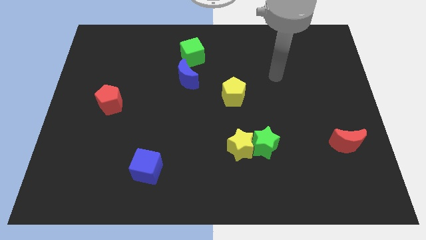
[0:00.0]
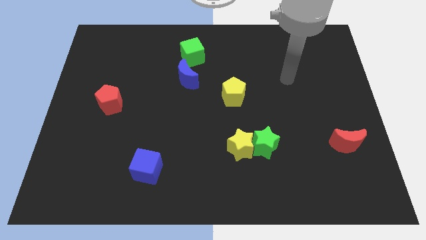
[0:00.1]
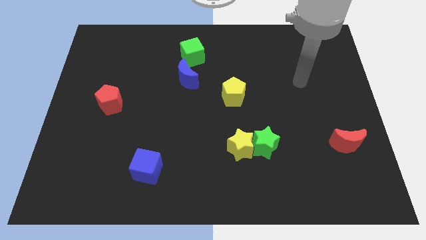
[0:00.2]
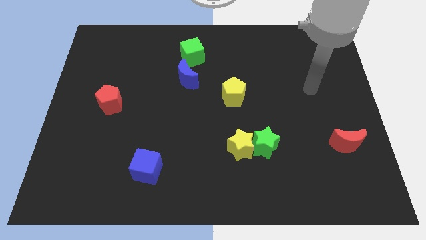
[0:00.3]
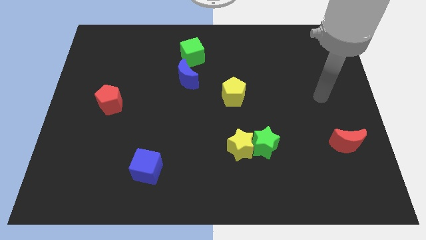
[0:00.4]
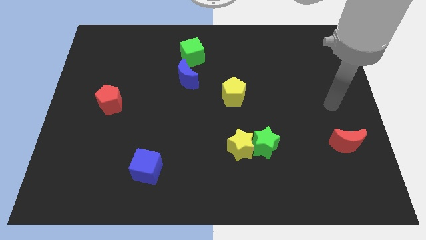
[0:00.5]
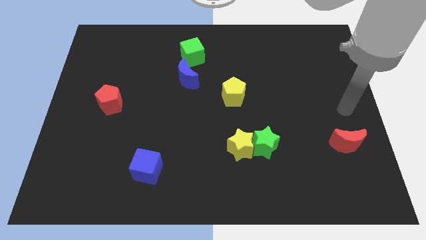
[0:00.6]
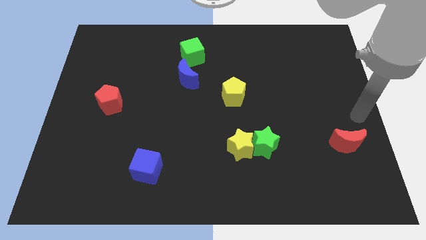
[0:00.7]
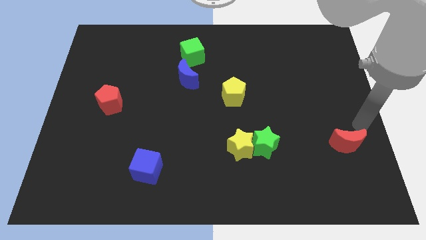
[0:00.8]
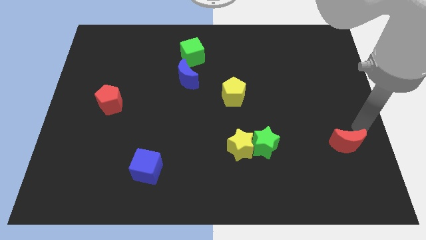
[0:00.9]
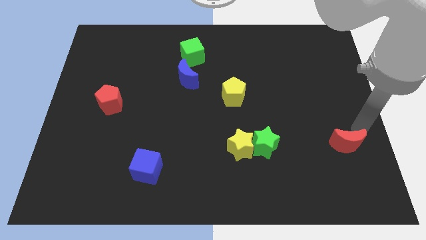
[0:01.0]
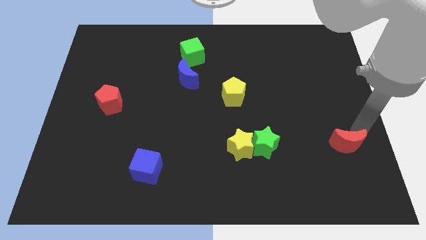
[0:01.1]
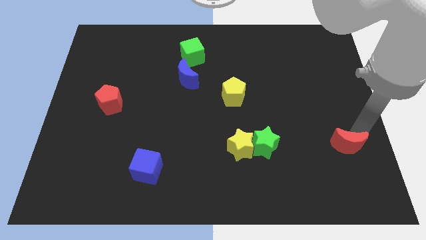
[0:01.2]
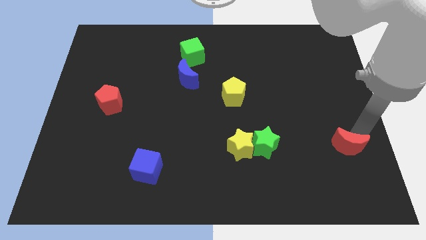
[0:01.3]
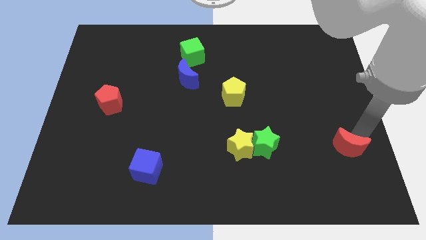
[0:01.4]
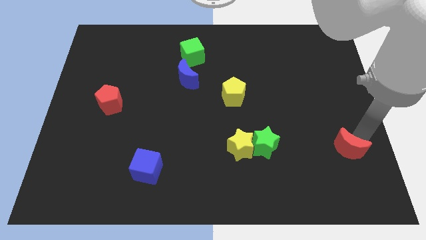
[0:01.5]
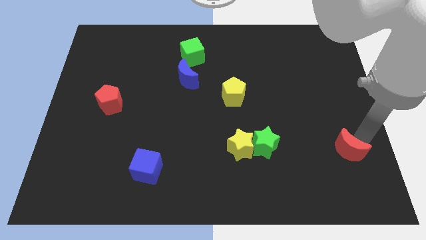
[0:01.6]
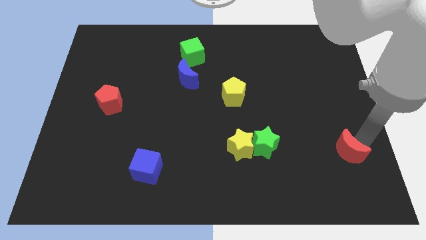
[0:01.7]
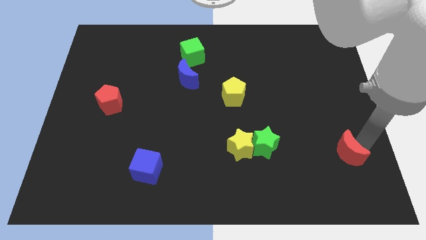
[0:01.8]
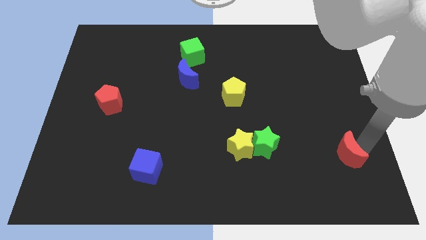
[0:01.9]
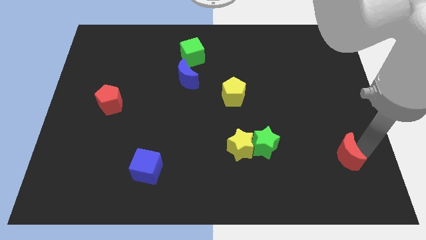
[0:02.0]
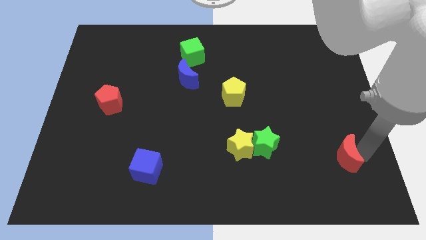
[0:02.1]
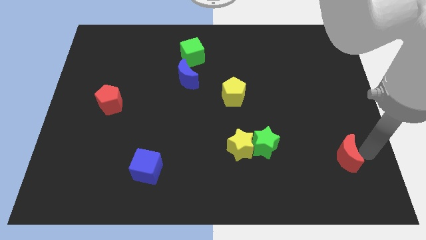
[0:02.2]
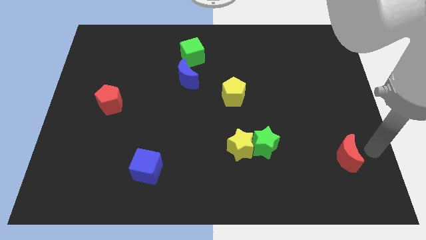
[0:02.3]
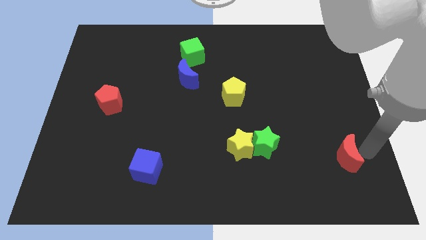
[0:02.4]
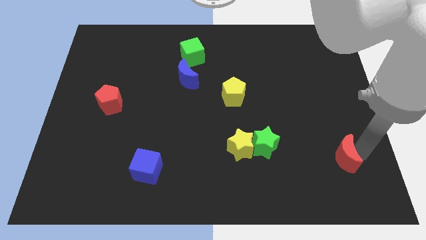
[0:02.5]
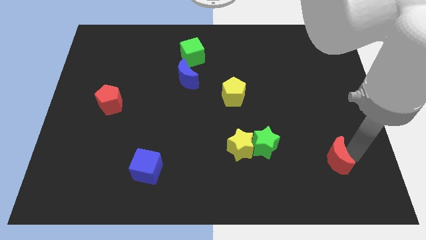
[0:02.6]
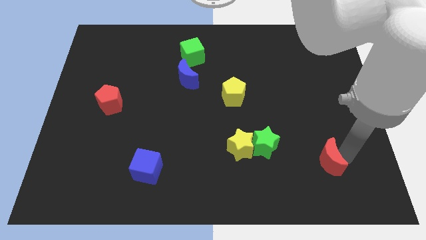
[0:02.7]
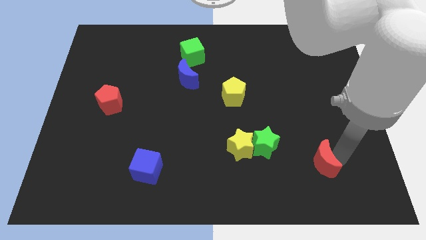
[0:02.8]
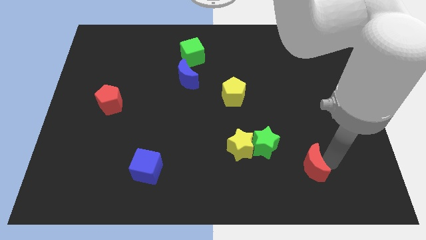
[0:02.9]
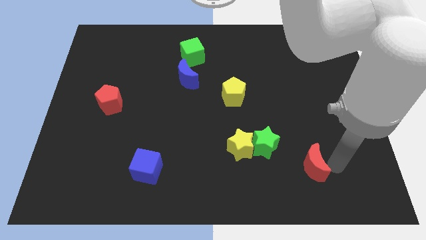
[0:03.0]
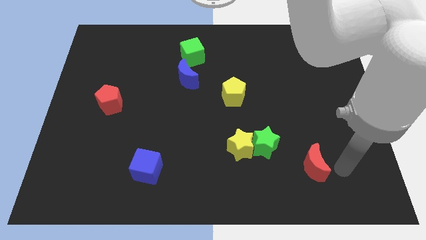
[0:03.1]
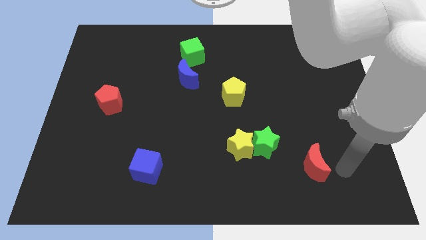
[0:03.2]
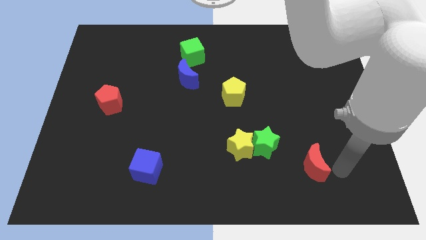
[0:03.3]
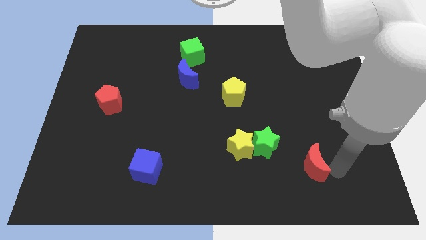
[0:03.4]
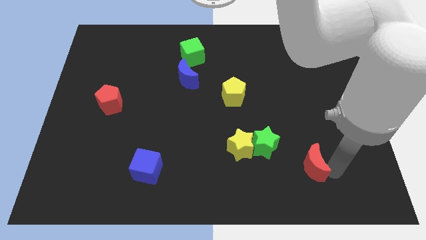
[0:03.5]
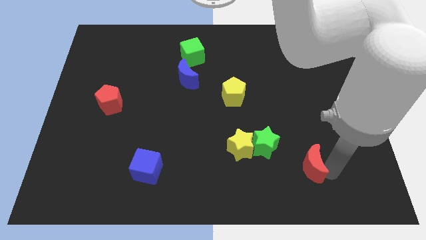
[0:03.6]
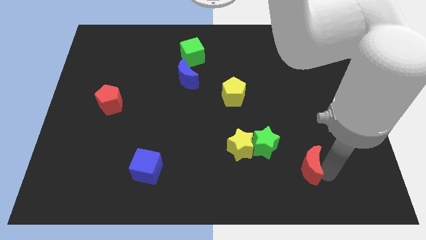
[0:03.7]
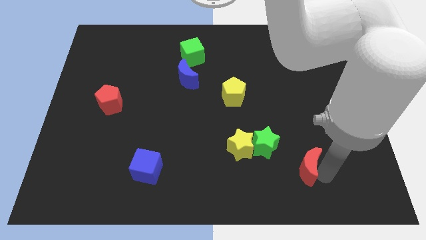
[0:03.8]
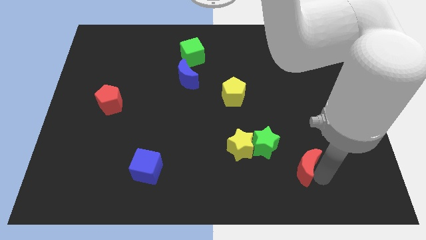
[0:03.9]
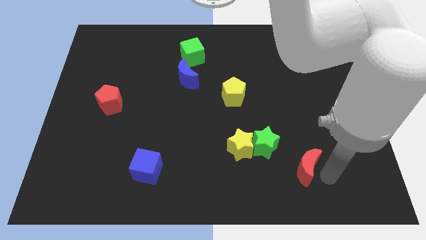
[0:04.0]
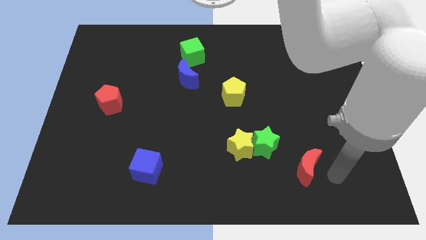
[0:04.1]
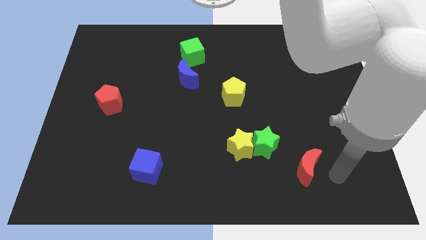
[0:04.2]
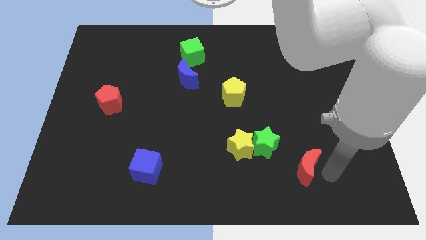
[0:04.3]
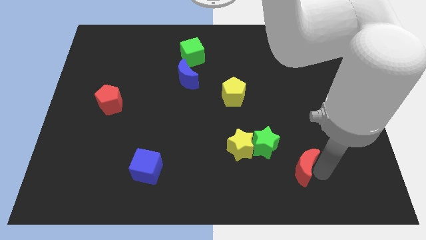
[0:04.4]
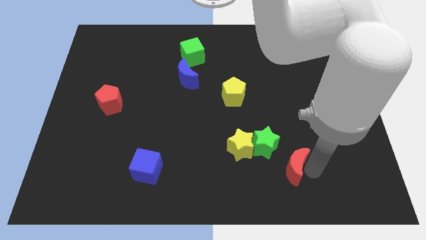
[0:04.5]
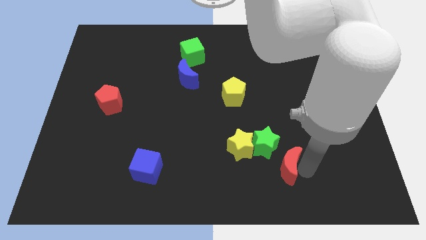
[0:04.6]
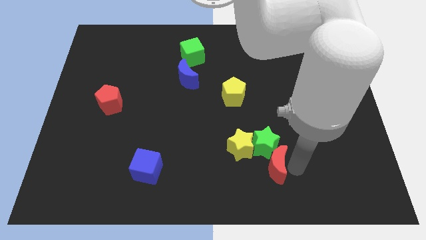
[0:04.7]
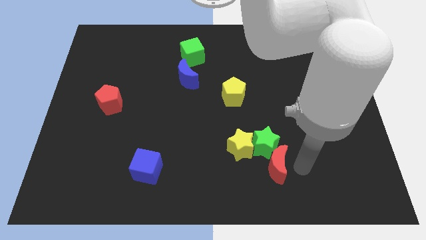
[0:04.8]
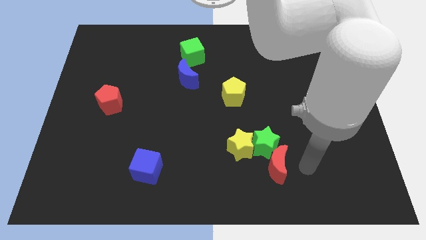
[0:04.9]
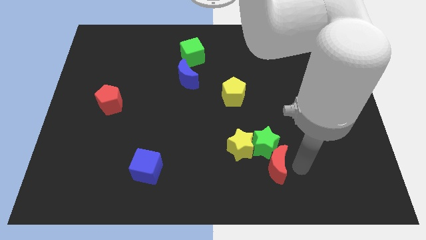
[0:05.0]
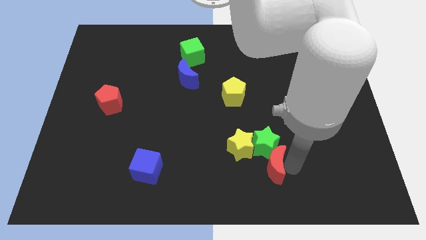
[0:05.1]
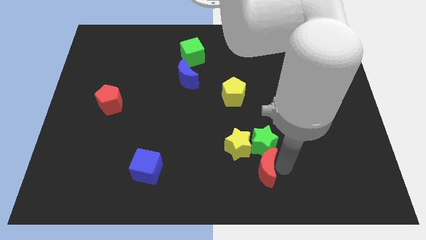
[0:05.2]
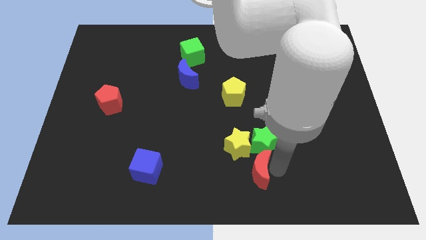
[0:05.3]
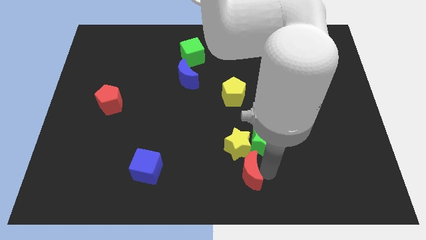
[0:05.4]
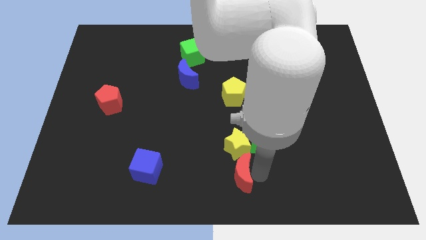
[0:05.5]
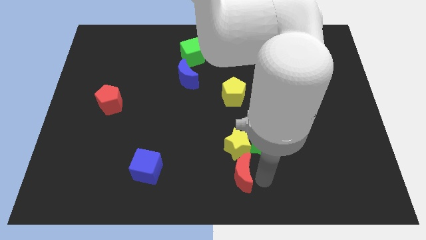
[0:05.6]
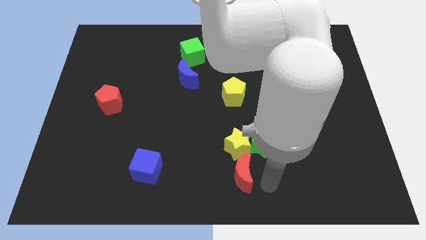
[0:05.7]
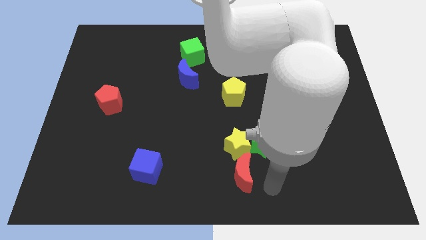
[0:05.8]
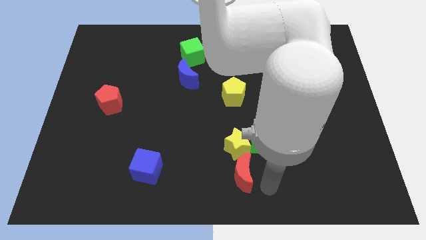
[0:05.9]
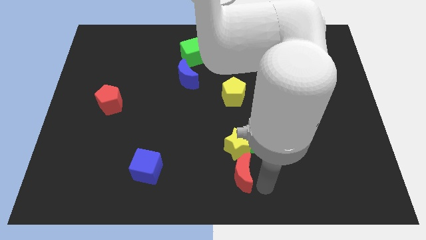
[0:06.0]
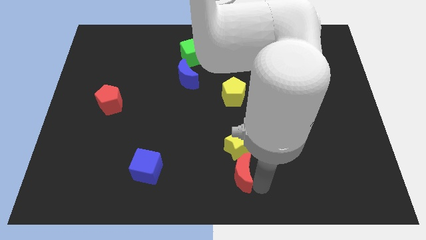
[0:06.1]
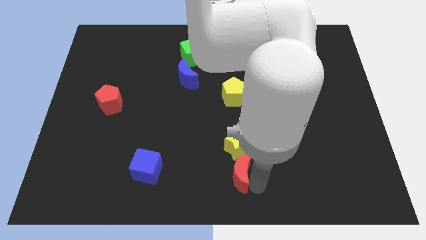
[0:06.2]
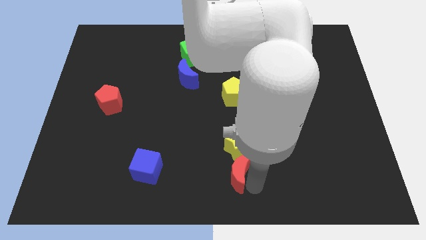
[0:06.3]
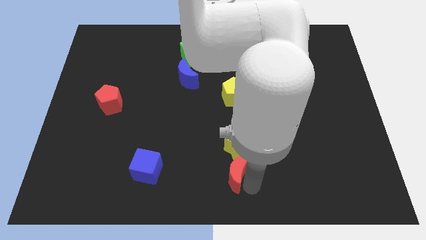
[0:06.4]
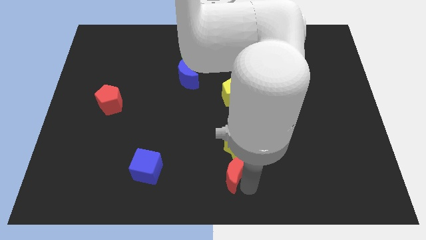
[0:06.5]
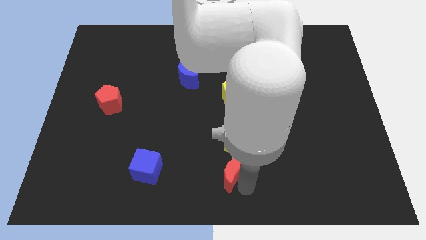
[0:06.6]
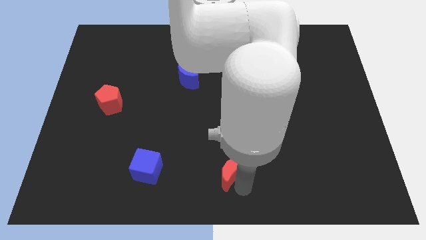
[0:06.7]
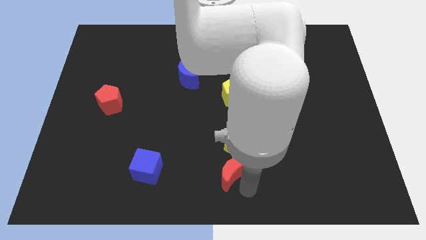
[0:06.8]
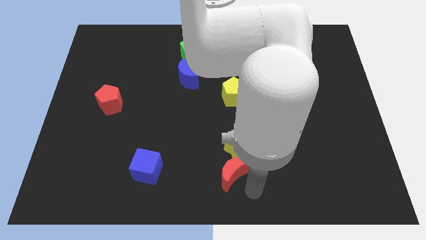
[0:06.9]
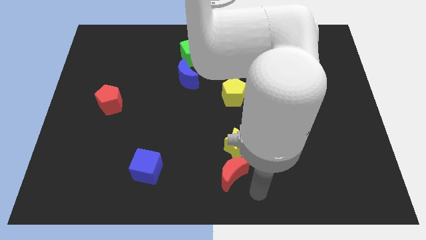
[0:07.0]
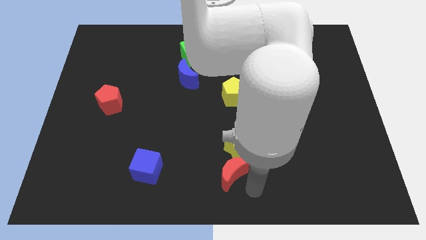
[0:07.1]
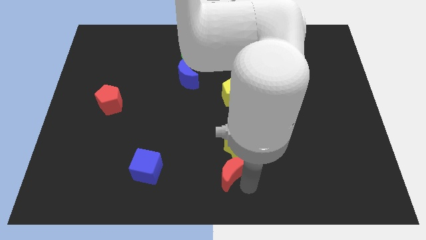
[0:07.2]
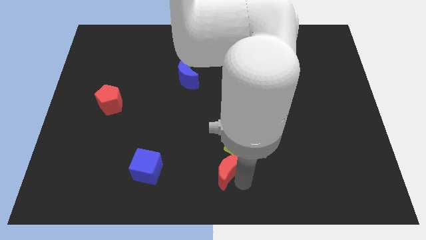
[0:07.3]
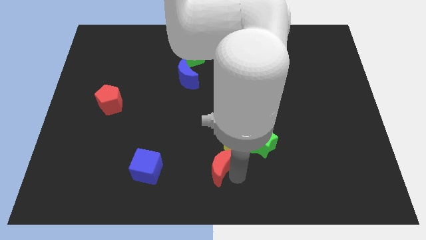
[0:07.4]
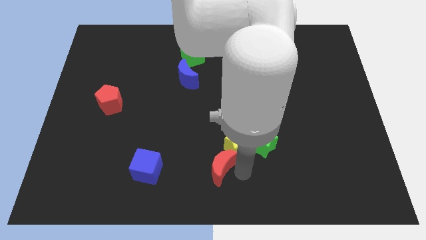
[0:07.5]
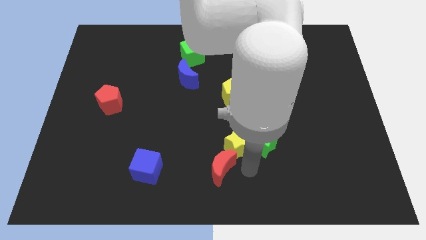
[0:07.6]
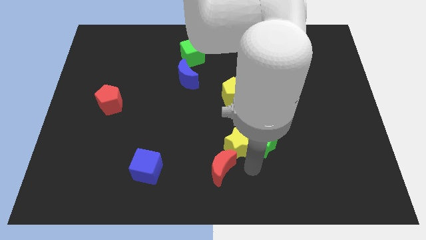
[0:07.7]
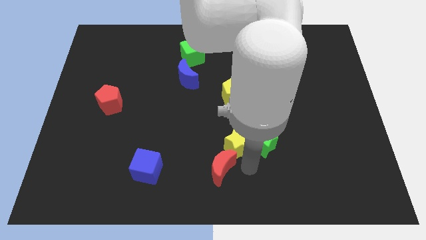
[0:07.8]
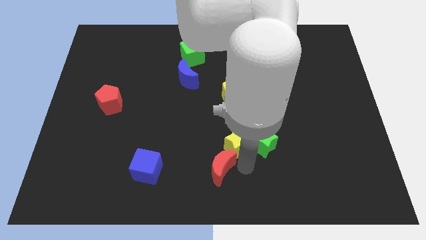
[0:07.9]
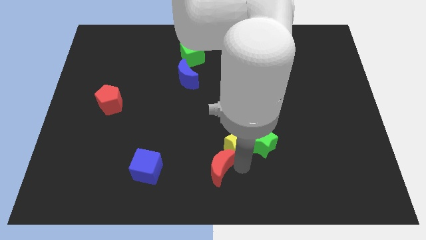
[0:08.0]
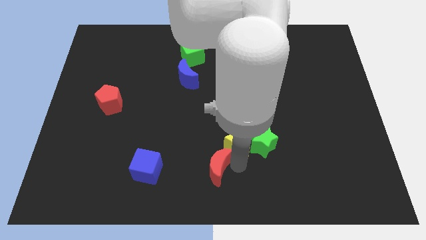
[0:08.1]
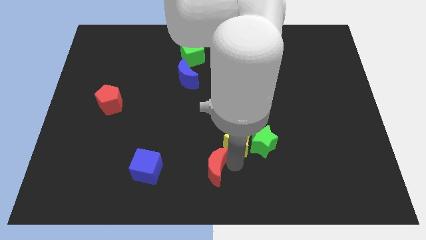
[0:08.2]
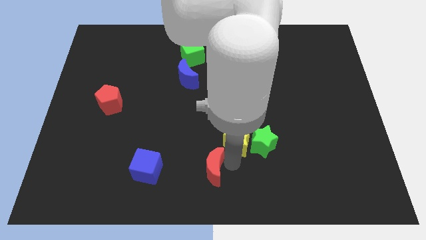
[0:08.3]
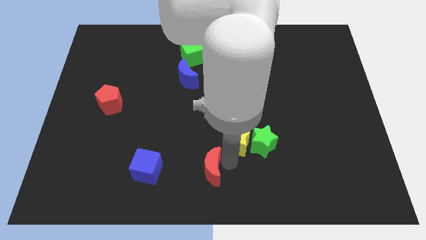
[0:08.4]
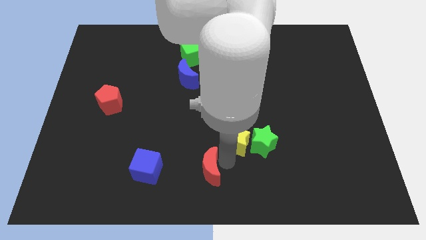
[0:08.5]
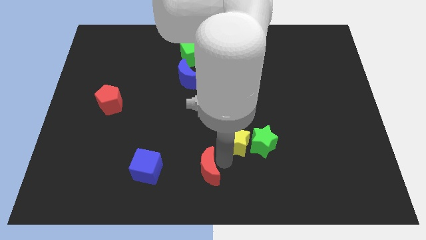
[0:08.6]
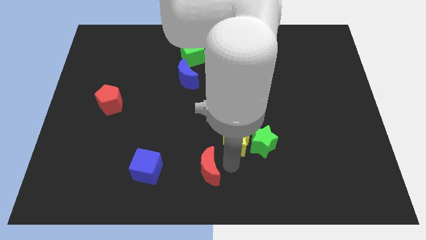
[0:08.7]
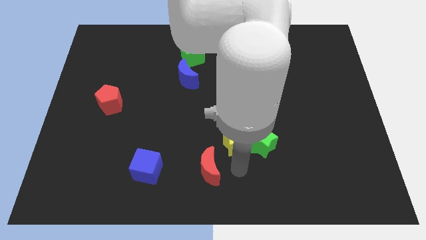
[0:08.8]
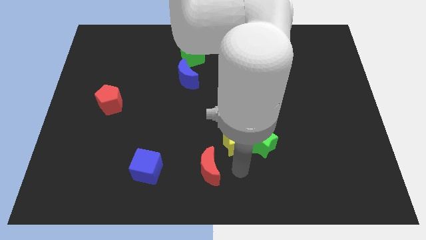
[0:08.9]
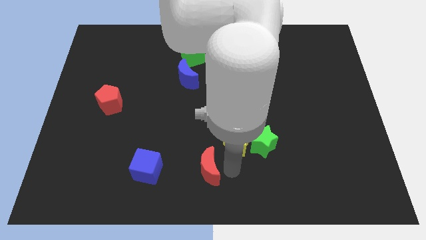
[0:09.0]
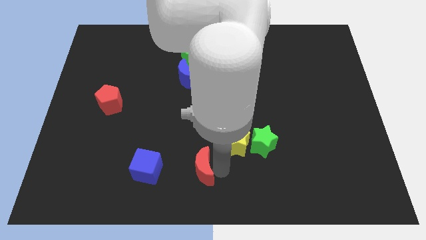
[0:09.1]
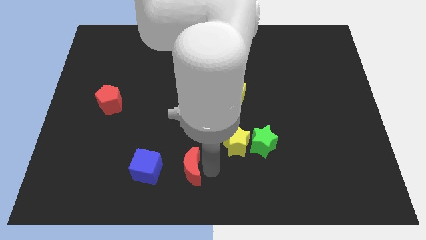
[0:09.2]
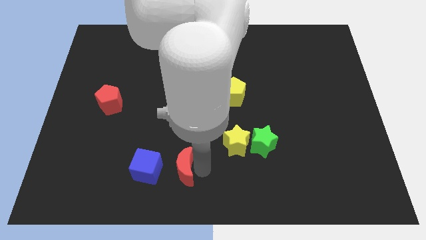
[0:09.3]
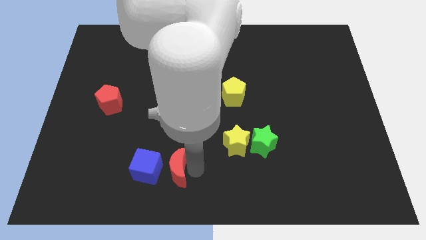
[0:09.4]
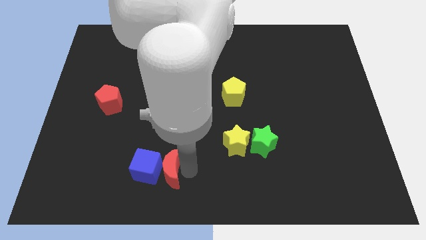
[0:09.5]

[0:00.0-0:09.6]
put the red moon towards the blue cube
